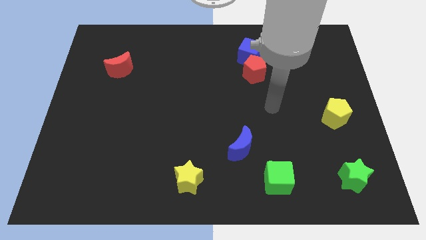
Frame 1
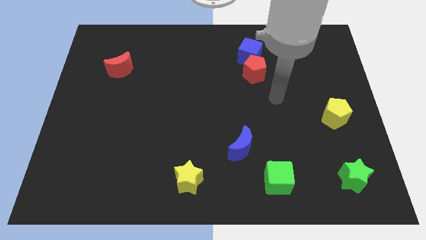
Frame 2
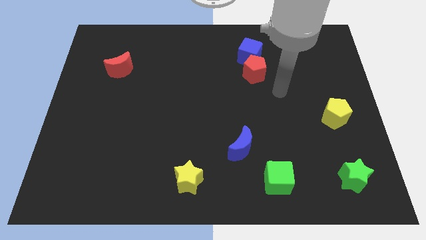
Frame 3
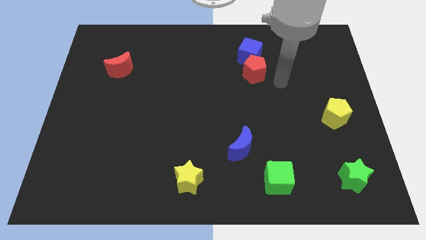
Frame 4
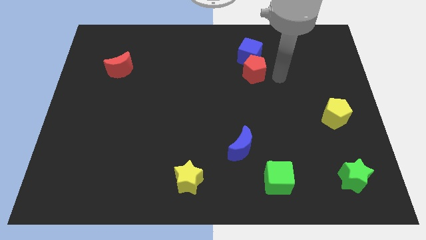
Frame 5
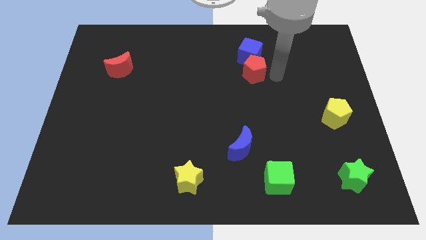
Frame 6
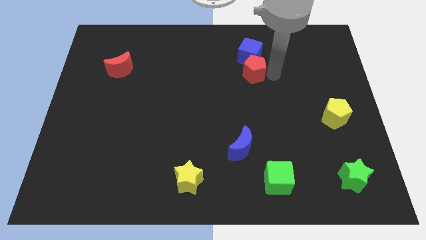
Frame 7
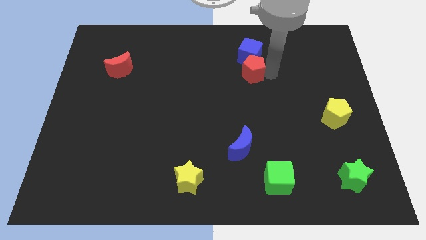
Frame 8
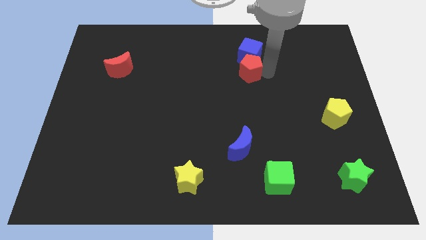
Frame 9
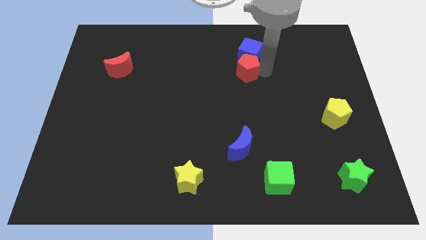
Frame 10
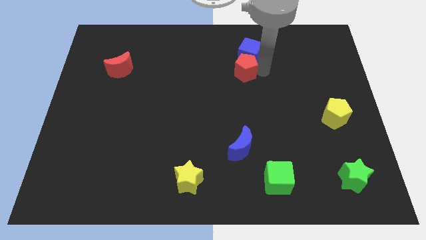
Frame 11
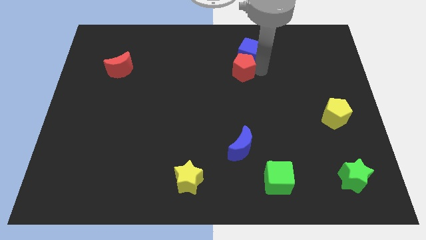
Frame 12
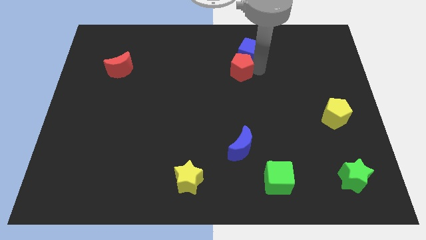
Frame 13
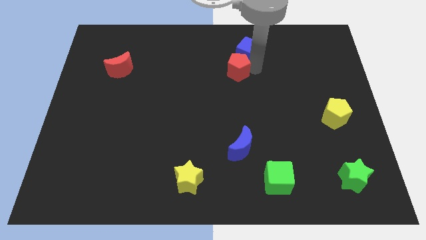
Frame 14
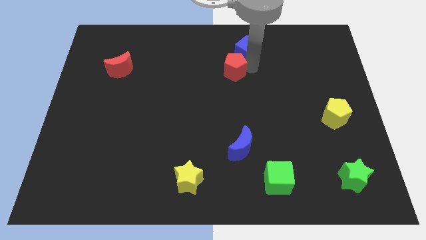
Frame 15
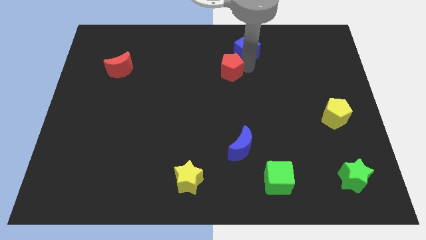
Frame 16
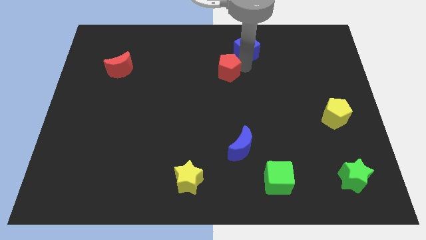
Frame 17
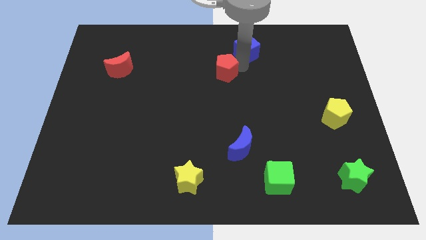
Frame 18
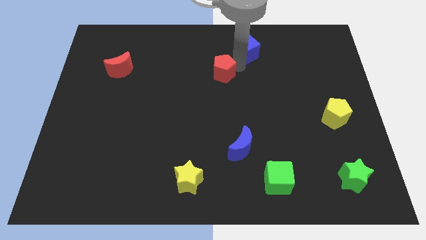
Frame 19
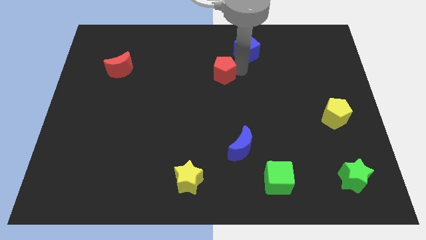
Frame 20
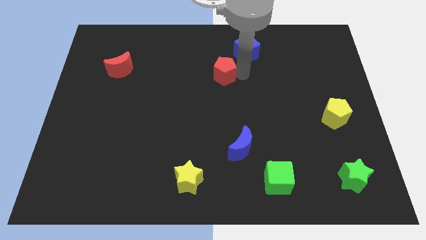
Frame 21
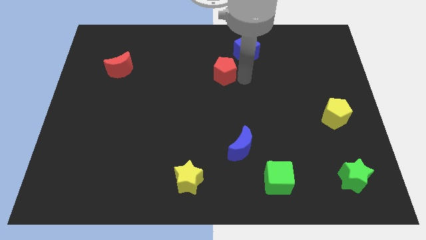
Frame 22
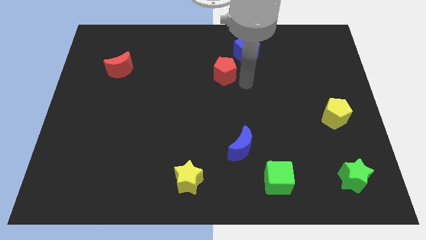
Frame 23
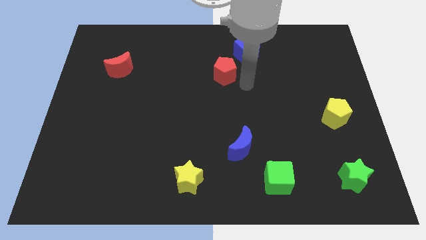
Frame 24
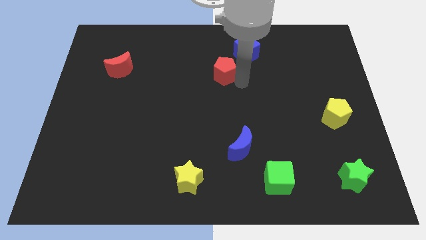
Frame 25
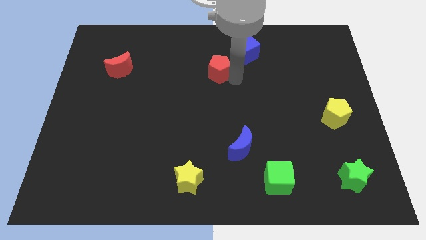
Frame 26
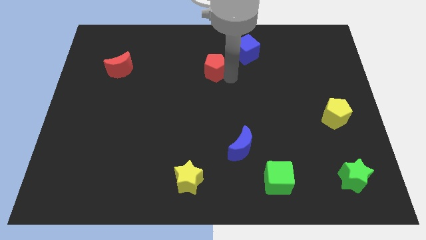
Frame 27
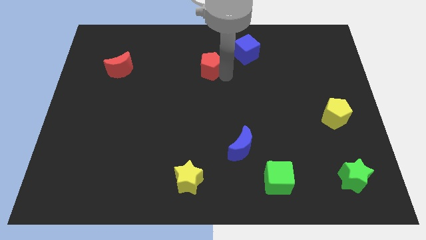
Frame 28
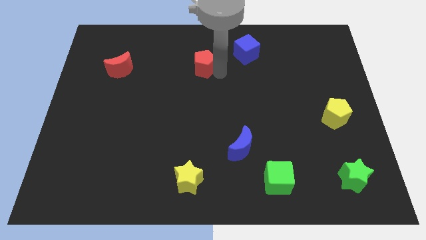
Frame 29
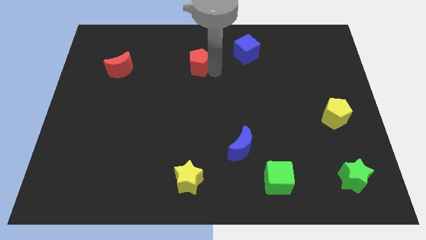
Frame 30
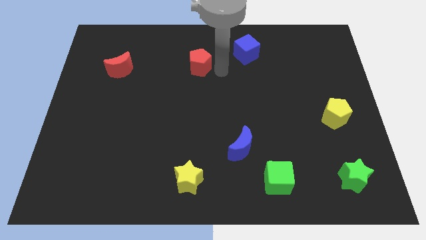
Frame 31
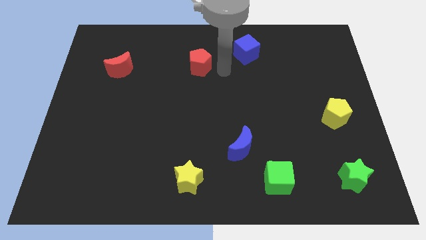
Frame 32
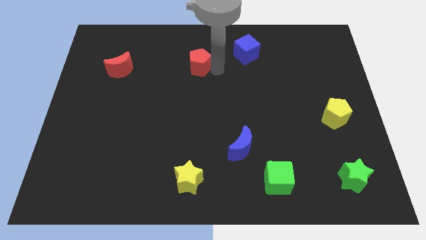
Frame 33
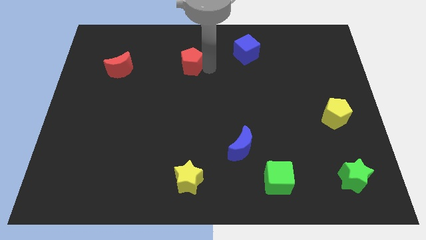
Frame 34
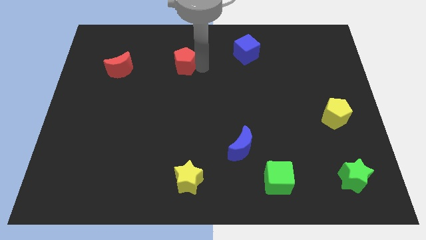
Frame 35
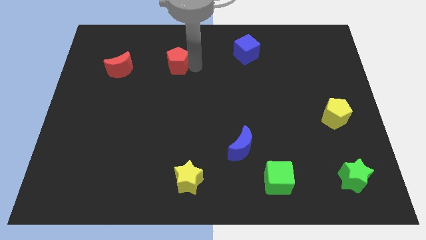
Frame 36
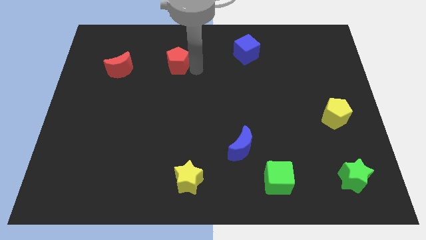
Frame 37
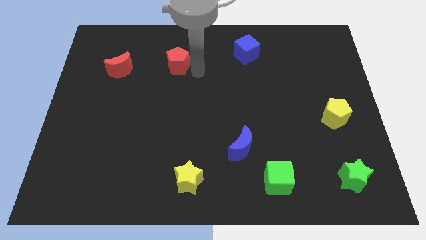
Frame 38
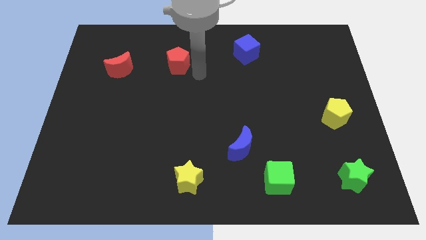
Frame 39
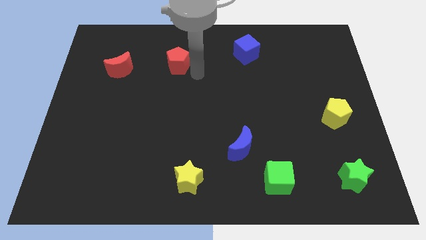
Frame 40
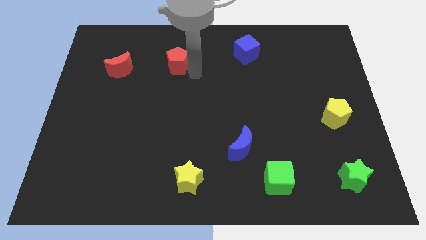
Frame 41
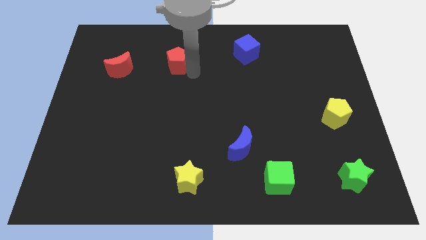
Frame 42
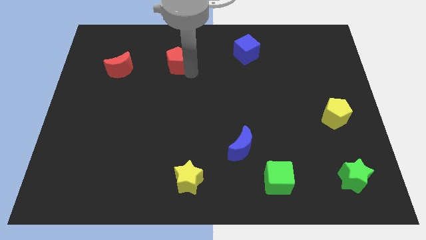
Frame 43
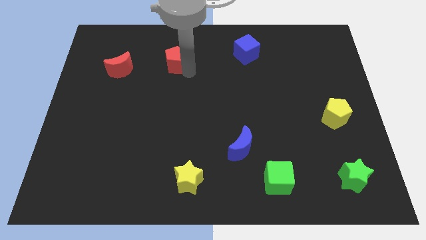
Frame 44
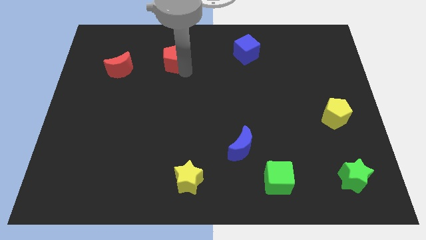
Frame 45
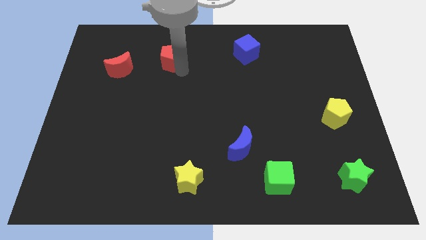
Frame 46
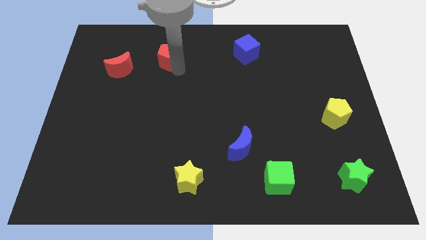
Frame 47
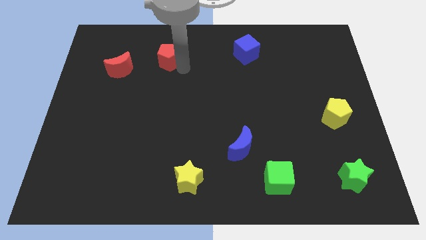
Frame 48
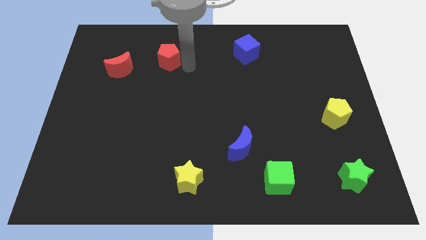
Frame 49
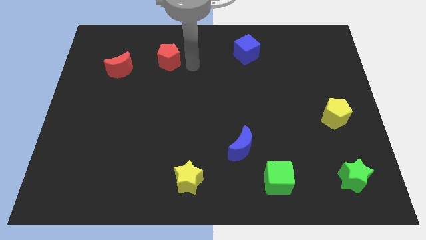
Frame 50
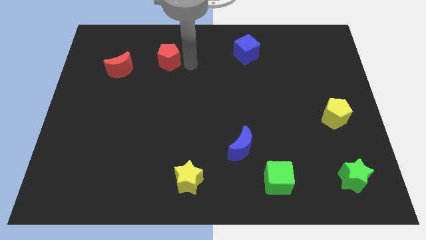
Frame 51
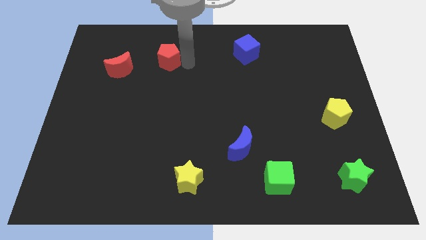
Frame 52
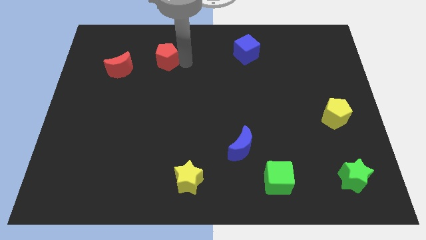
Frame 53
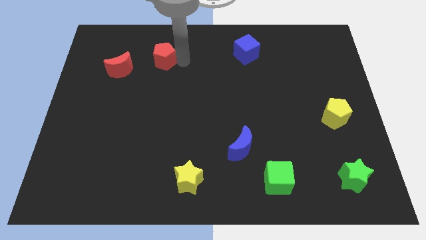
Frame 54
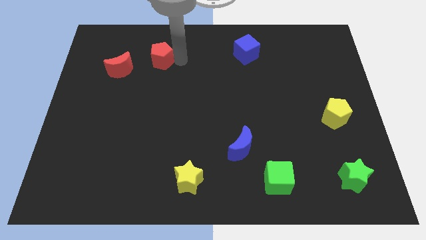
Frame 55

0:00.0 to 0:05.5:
put the red pentagon to the top right of the red moon

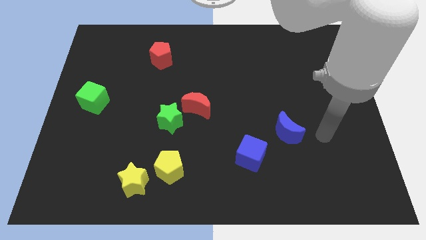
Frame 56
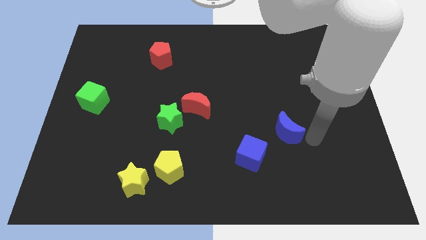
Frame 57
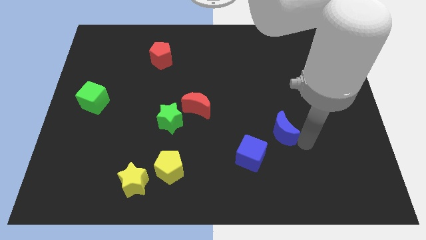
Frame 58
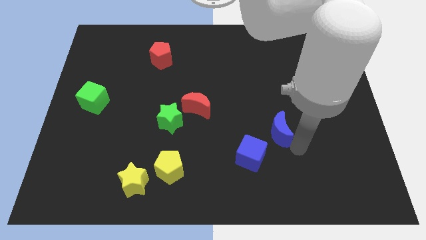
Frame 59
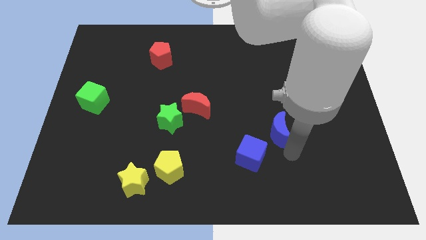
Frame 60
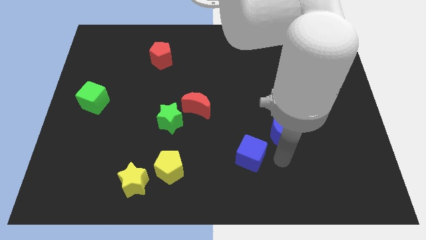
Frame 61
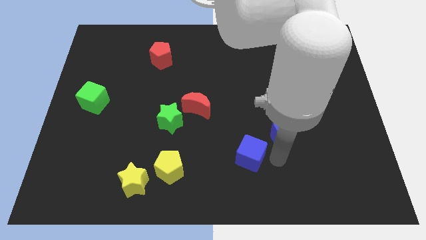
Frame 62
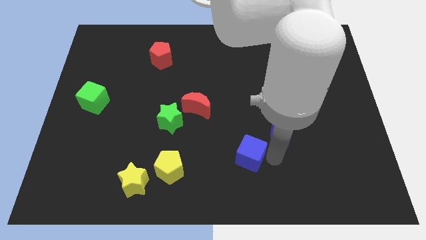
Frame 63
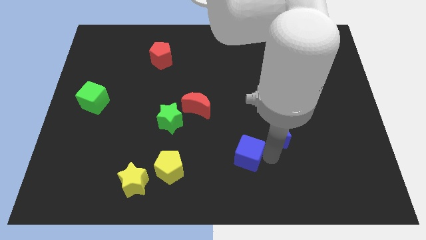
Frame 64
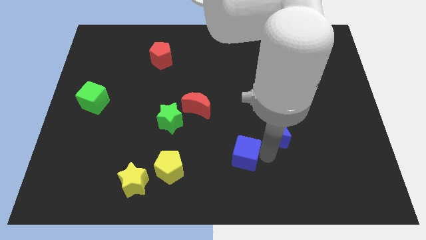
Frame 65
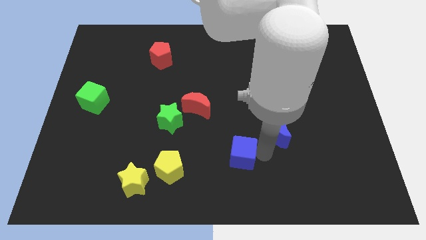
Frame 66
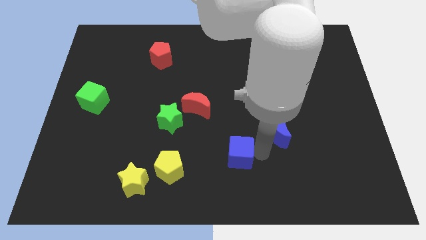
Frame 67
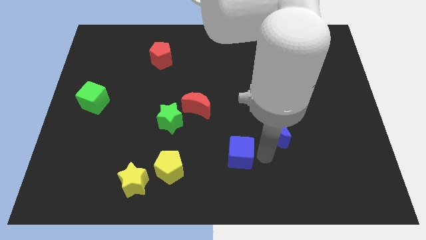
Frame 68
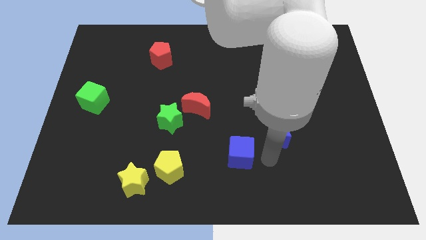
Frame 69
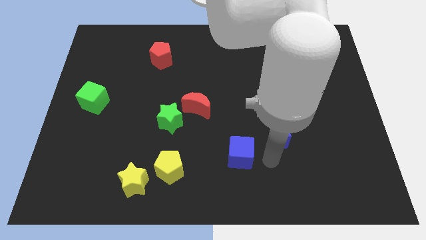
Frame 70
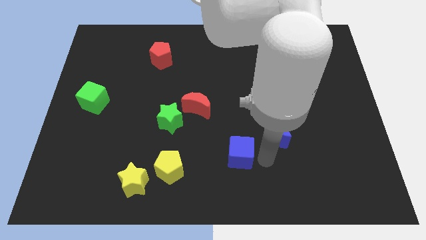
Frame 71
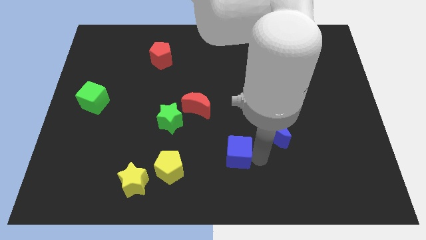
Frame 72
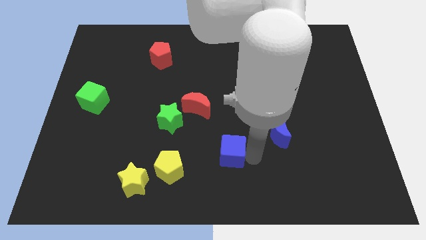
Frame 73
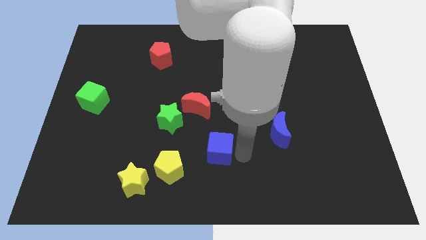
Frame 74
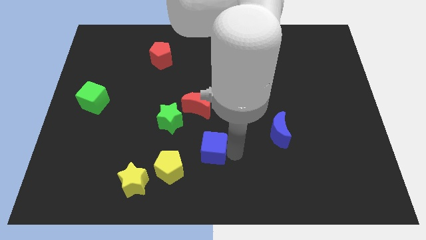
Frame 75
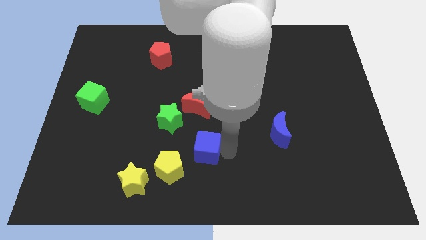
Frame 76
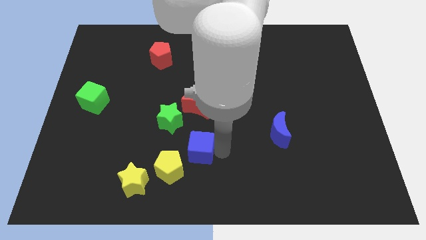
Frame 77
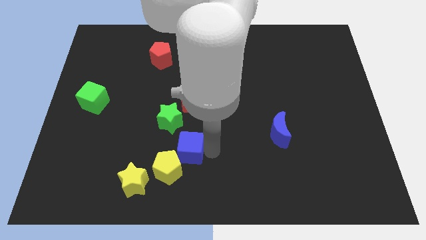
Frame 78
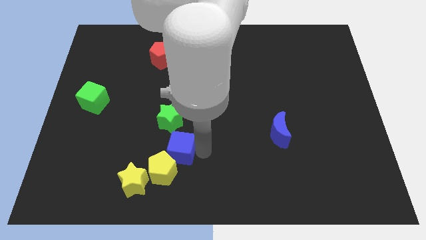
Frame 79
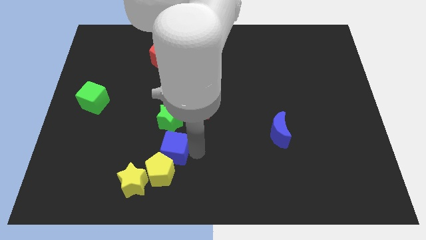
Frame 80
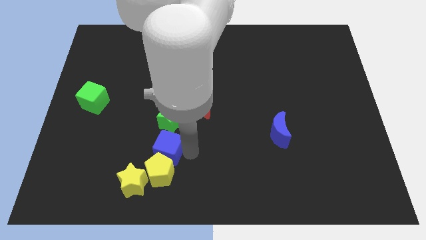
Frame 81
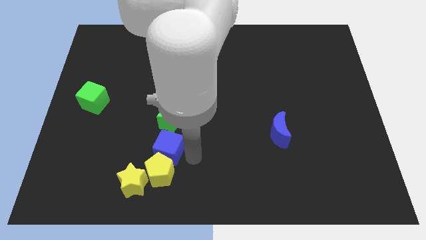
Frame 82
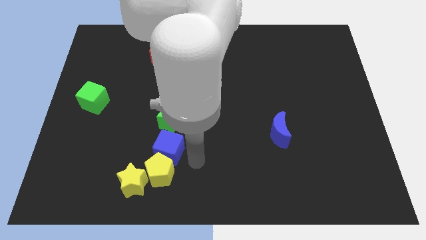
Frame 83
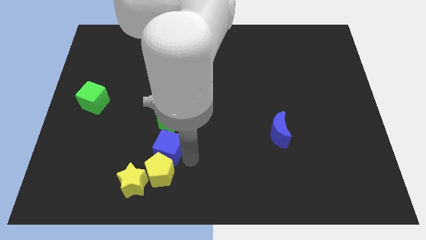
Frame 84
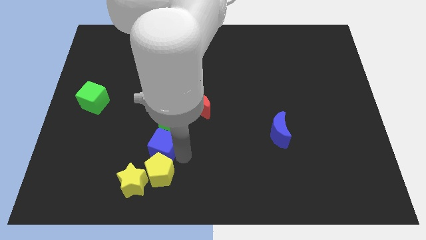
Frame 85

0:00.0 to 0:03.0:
push the blue cube to the bottom left of the green star
